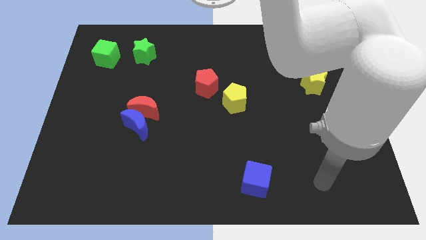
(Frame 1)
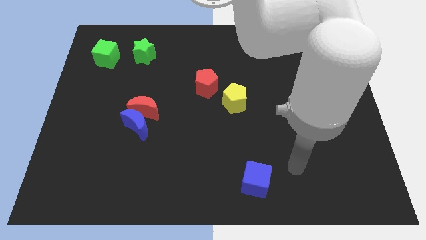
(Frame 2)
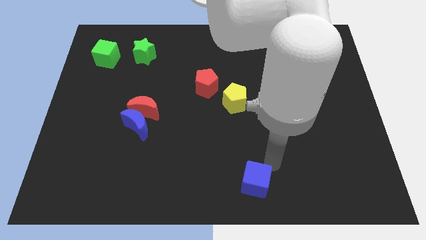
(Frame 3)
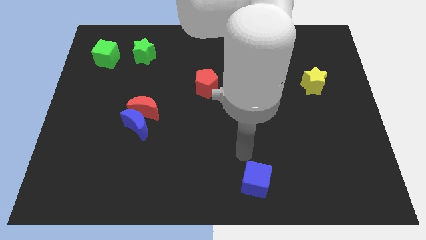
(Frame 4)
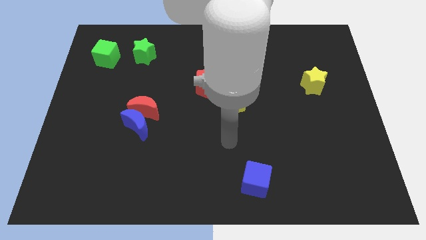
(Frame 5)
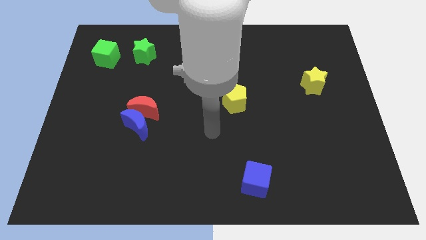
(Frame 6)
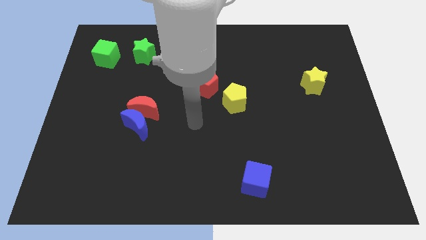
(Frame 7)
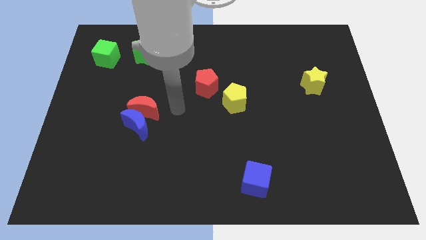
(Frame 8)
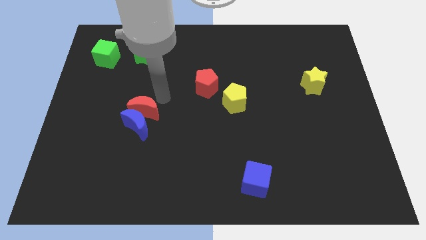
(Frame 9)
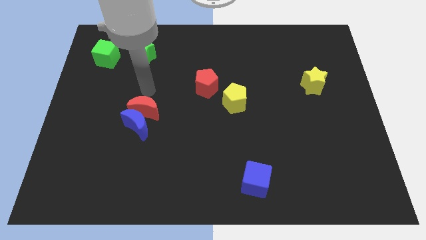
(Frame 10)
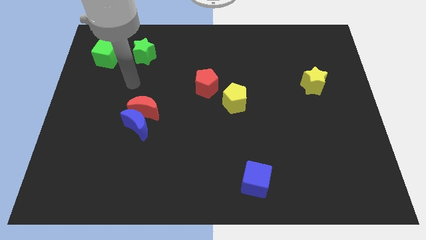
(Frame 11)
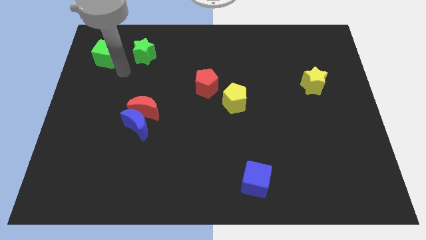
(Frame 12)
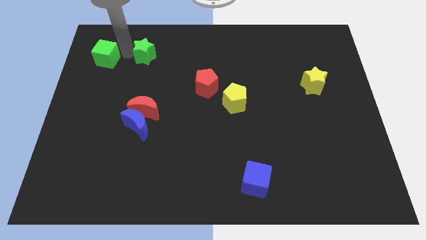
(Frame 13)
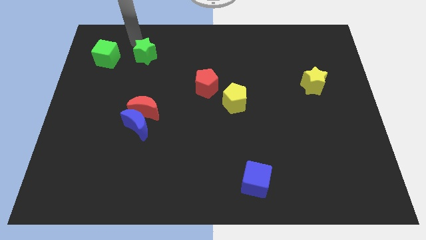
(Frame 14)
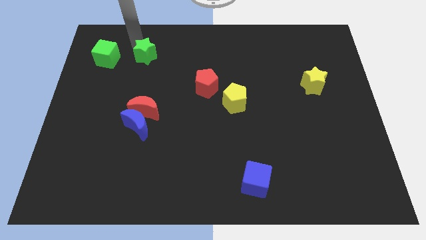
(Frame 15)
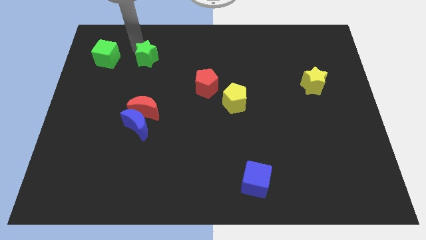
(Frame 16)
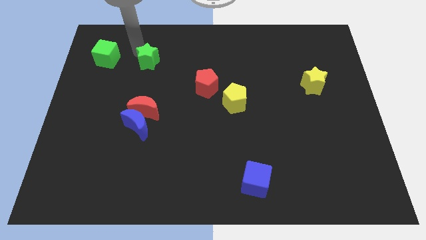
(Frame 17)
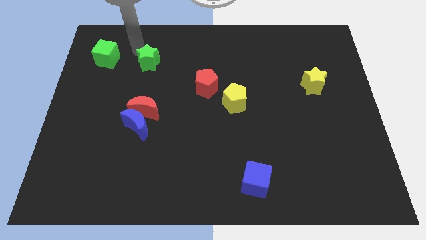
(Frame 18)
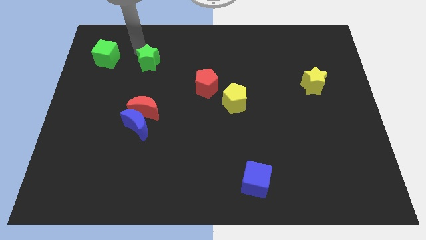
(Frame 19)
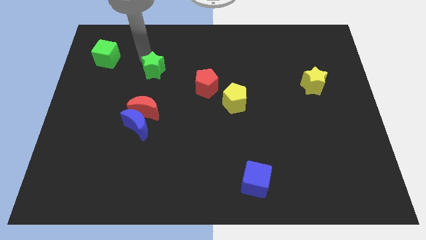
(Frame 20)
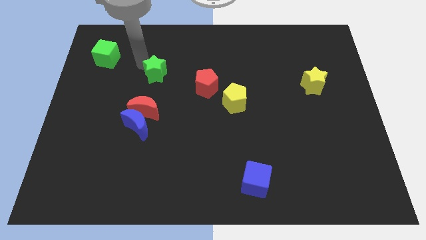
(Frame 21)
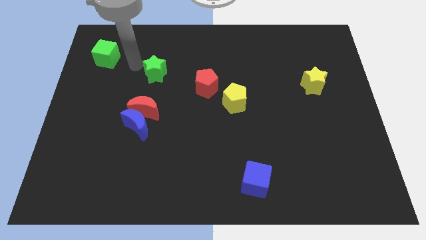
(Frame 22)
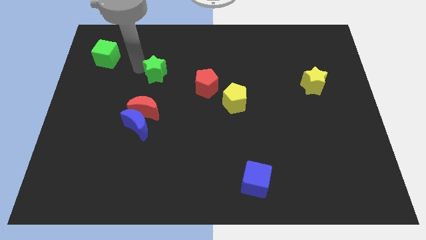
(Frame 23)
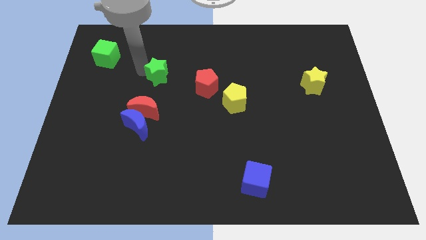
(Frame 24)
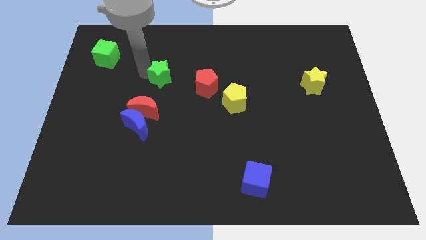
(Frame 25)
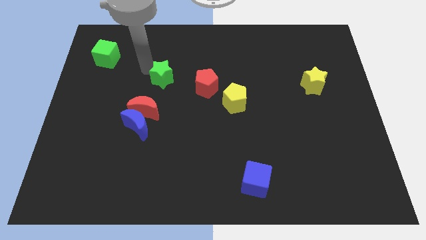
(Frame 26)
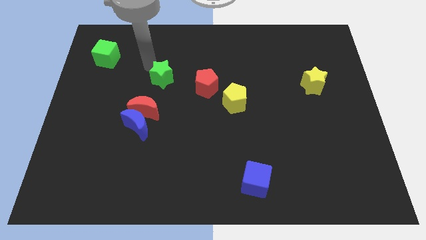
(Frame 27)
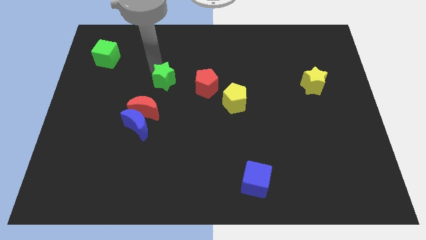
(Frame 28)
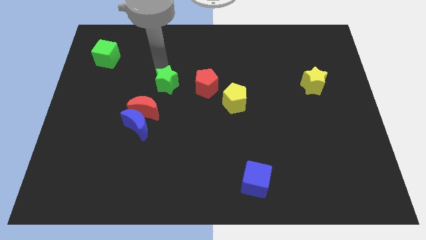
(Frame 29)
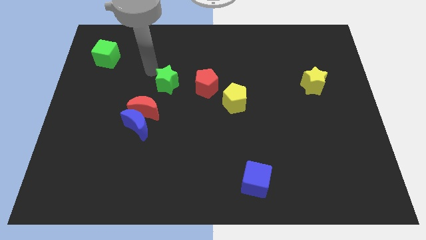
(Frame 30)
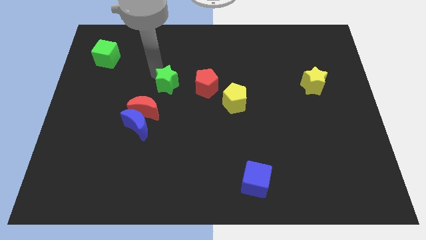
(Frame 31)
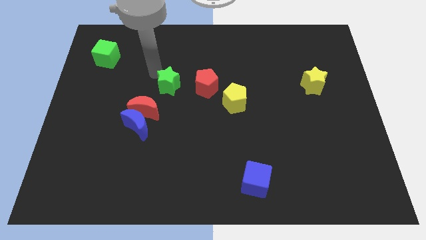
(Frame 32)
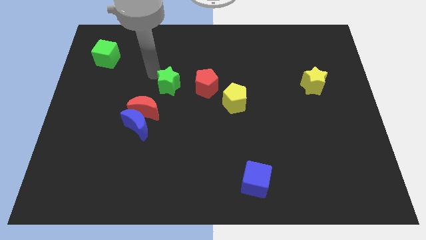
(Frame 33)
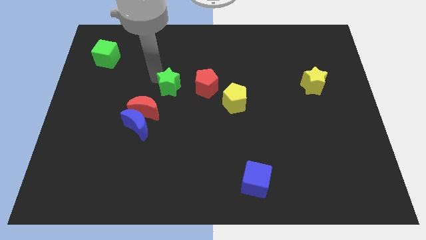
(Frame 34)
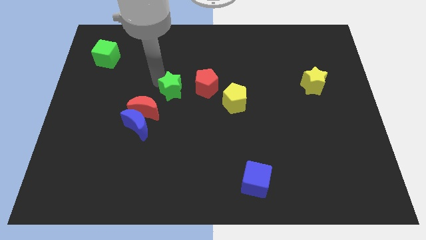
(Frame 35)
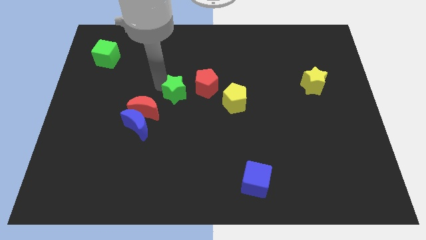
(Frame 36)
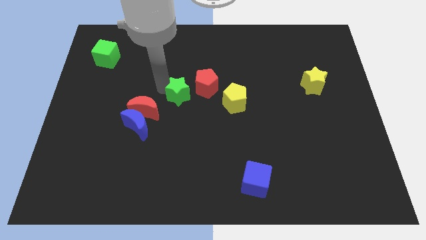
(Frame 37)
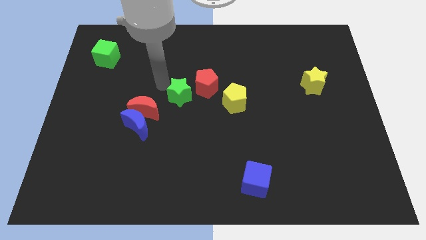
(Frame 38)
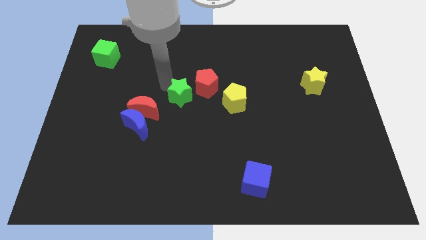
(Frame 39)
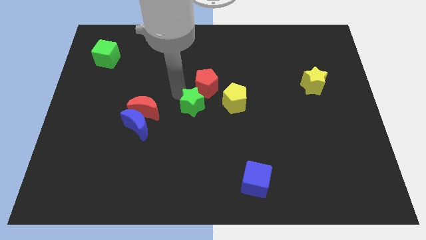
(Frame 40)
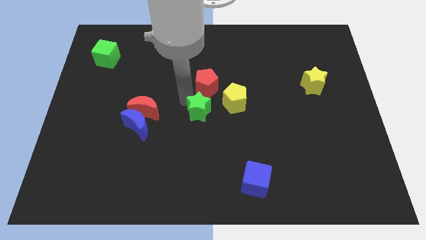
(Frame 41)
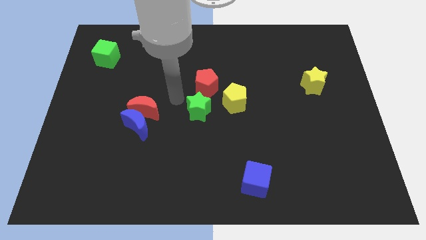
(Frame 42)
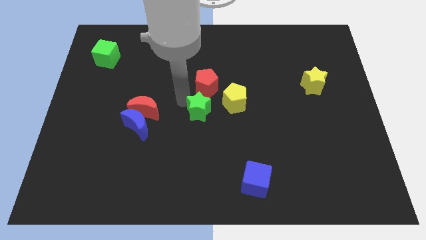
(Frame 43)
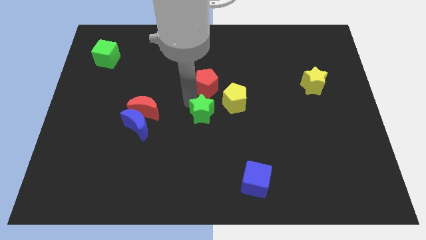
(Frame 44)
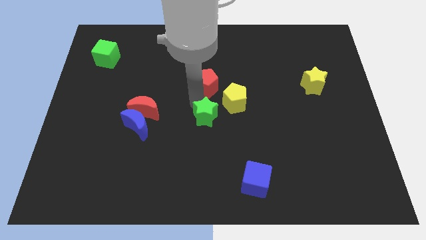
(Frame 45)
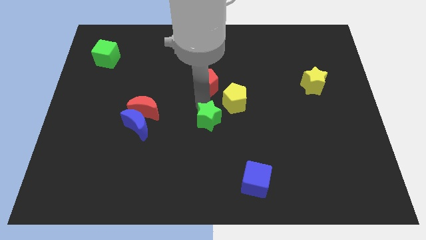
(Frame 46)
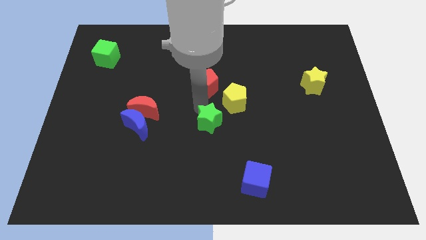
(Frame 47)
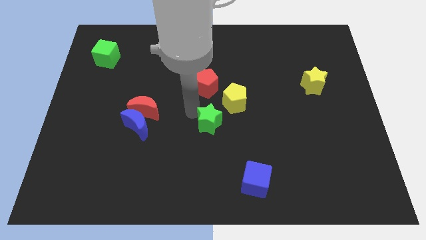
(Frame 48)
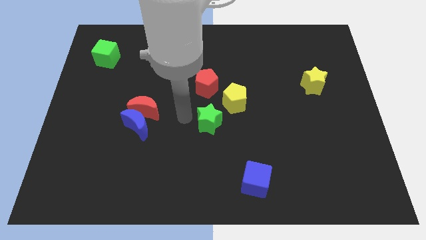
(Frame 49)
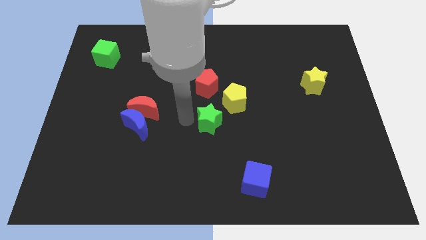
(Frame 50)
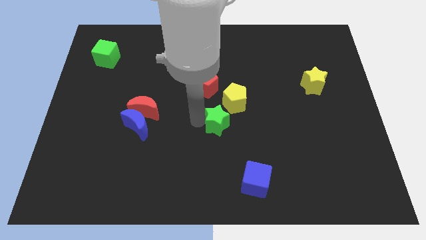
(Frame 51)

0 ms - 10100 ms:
slide the green star to the bottom of the yellow pentagon

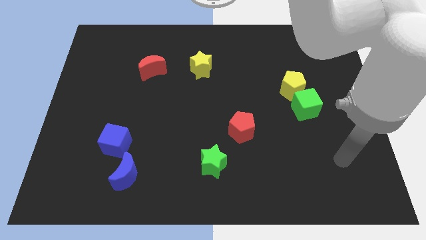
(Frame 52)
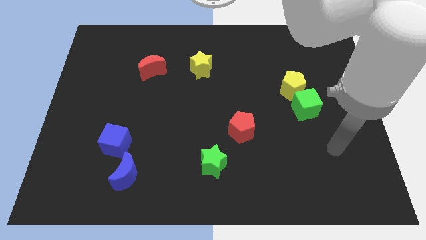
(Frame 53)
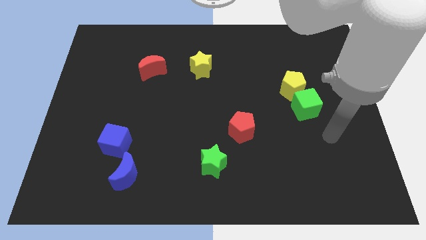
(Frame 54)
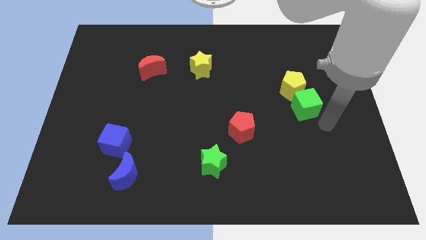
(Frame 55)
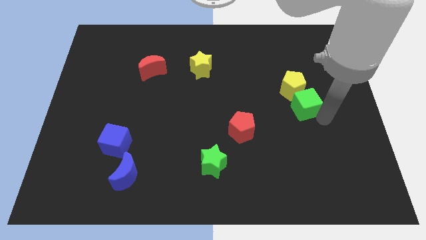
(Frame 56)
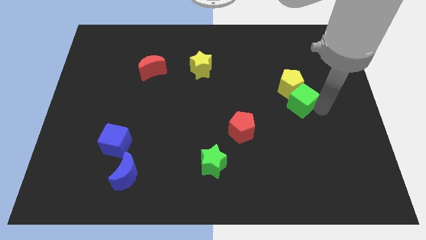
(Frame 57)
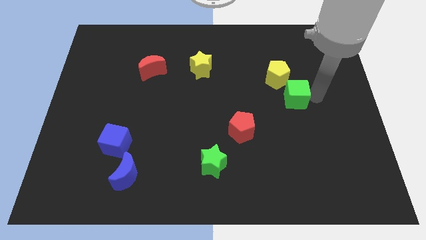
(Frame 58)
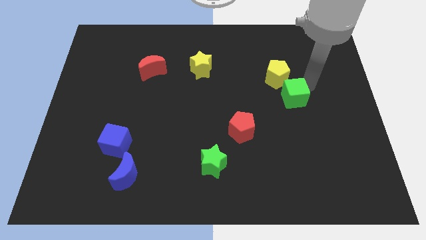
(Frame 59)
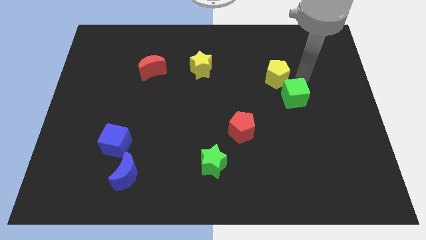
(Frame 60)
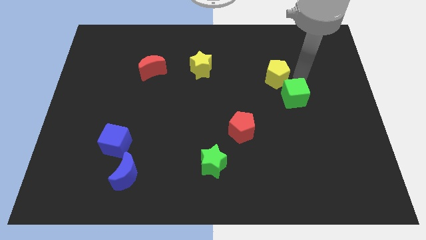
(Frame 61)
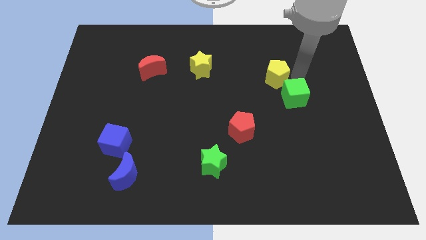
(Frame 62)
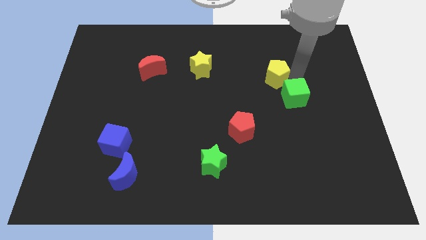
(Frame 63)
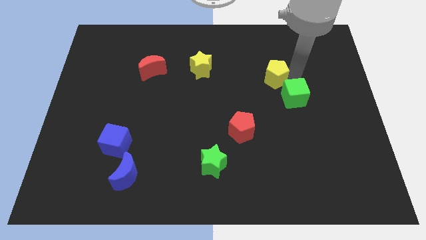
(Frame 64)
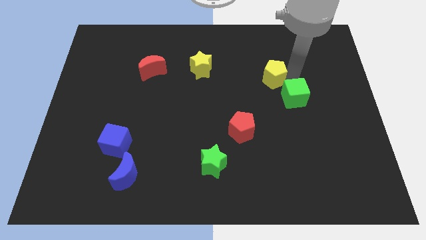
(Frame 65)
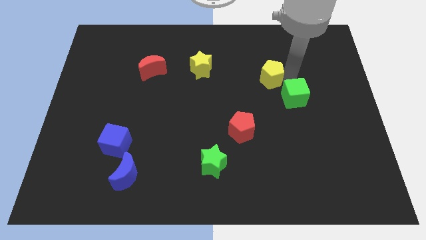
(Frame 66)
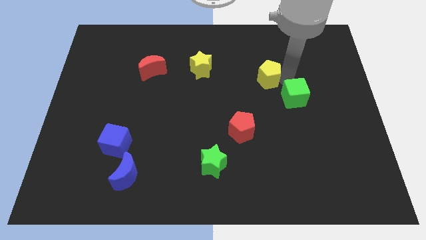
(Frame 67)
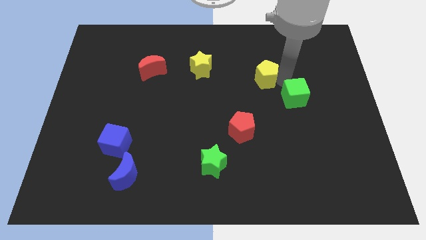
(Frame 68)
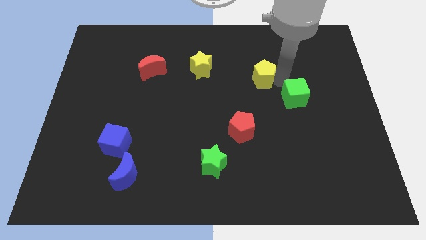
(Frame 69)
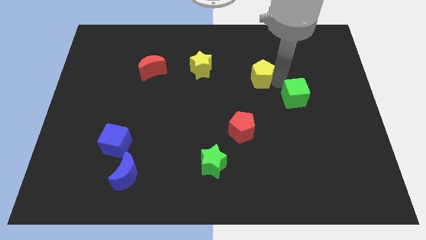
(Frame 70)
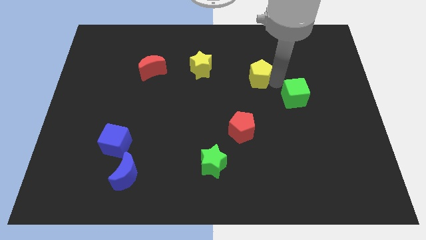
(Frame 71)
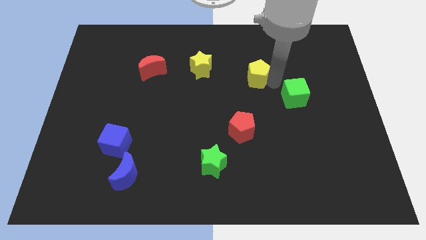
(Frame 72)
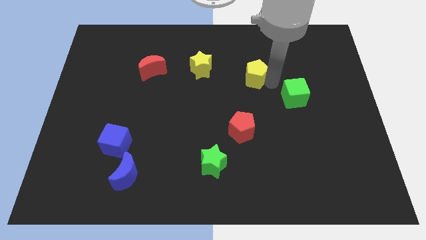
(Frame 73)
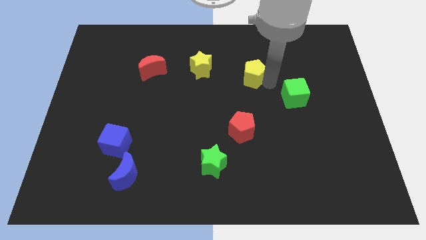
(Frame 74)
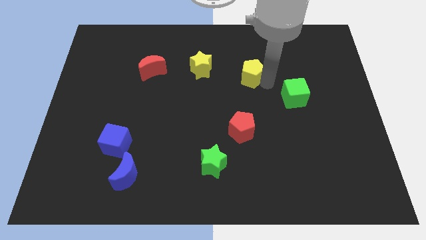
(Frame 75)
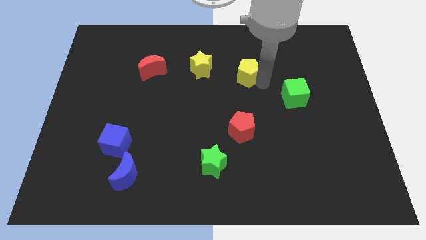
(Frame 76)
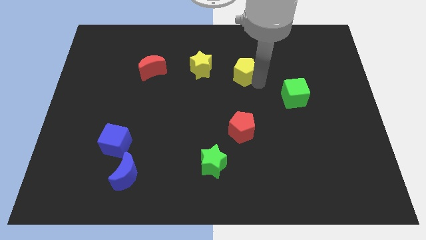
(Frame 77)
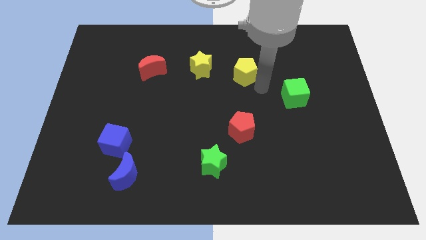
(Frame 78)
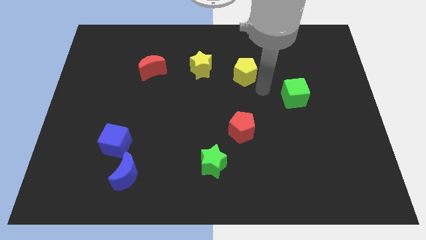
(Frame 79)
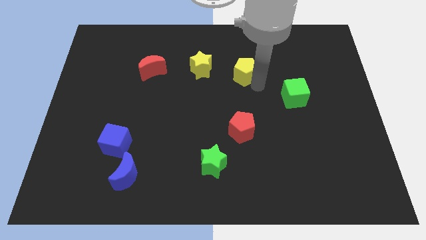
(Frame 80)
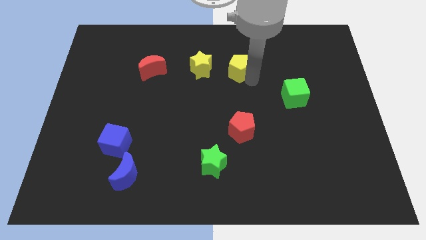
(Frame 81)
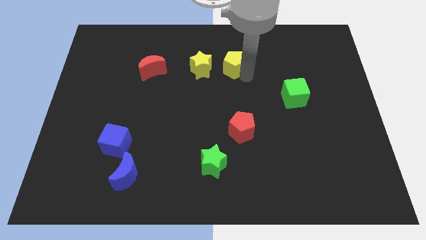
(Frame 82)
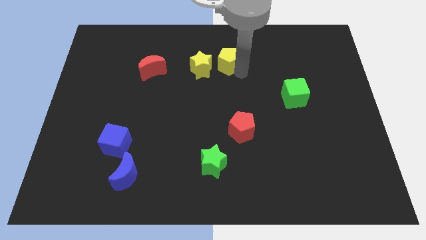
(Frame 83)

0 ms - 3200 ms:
push the yellow pentagon to the top right of the yellow star
